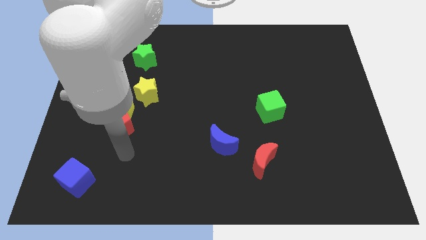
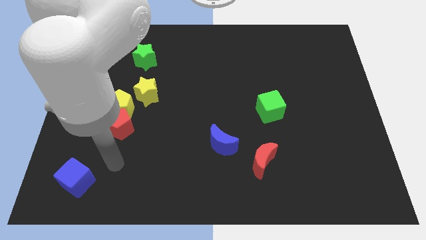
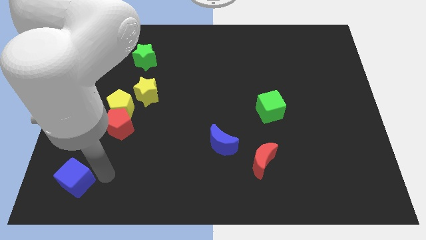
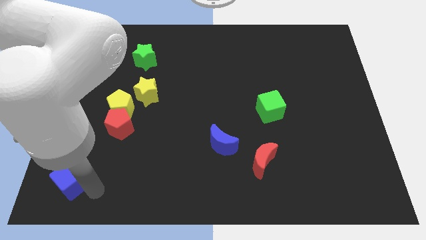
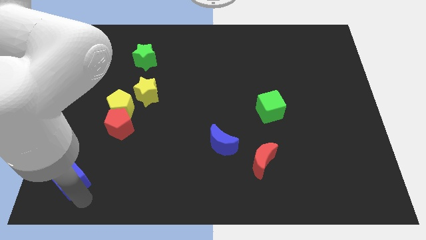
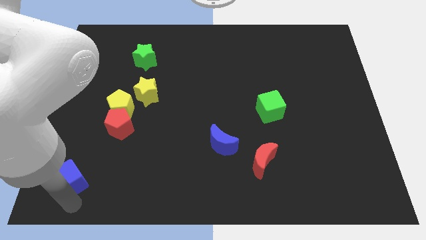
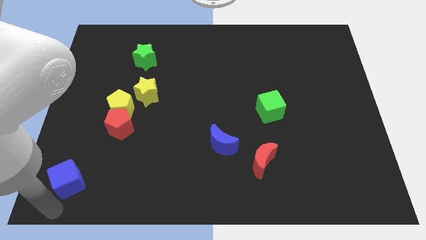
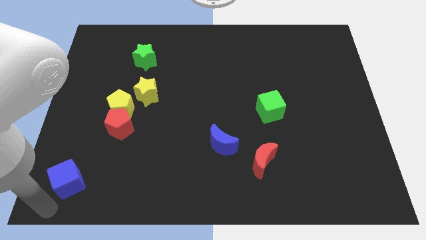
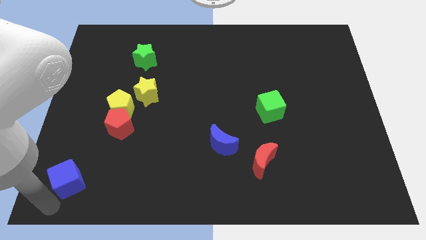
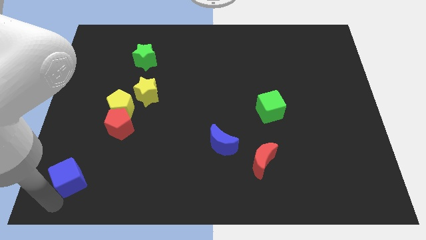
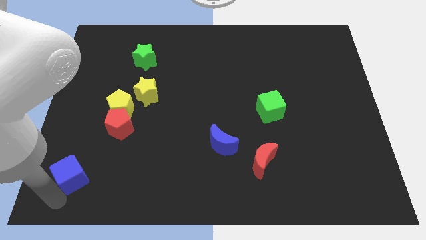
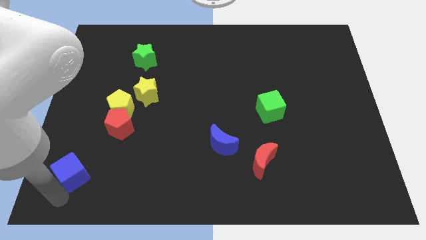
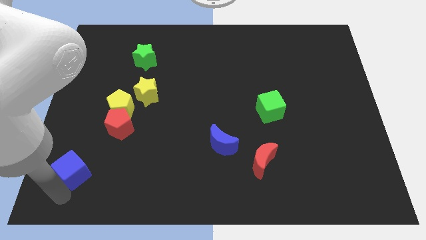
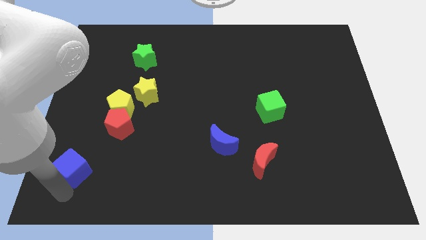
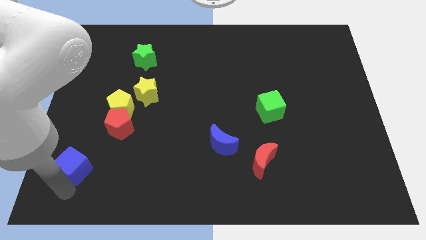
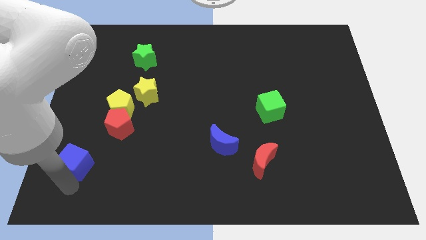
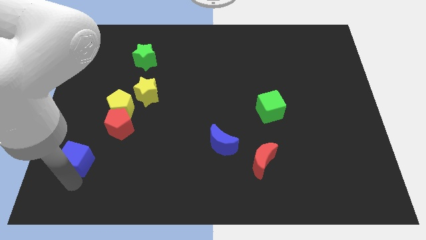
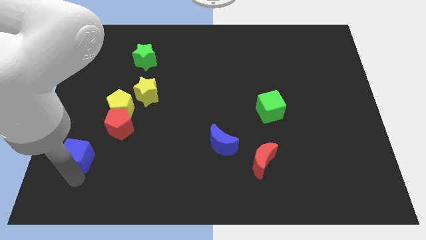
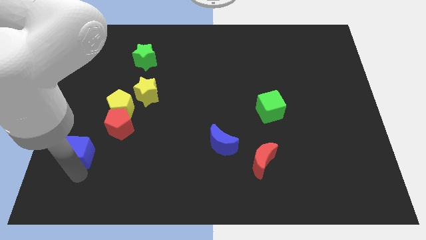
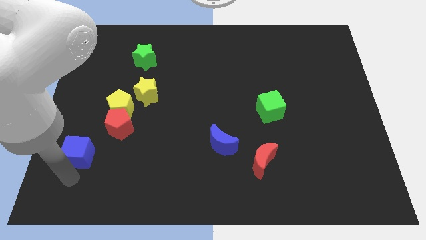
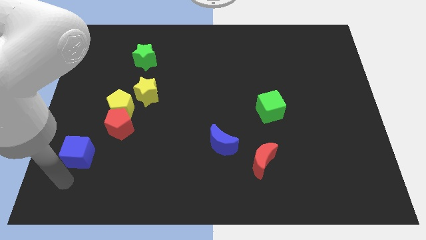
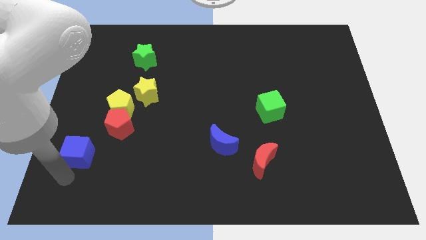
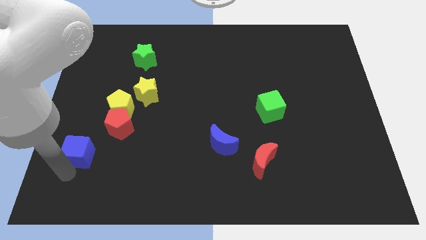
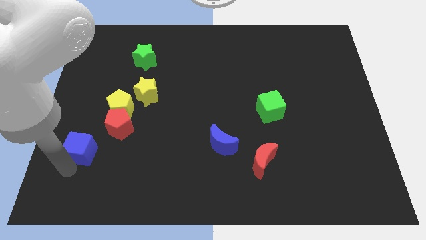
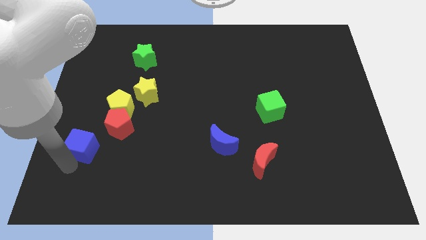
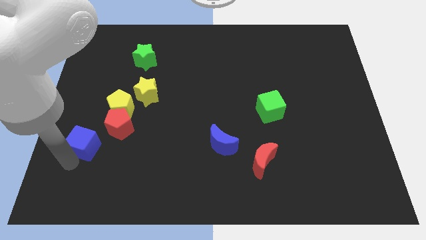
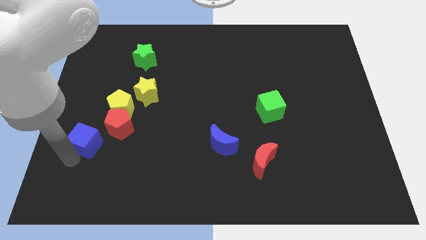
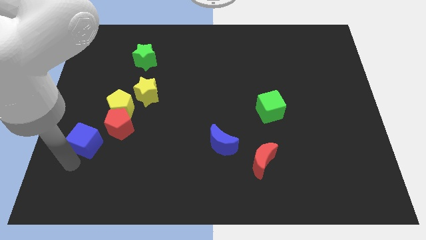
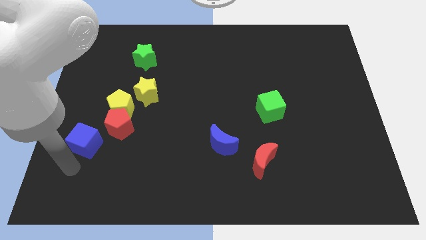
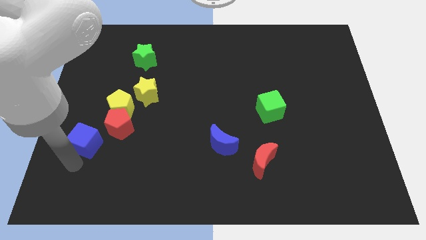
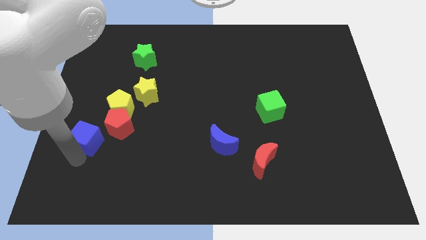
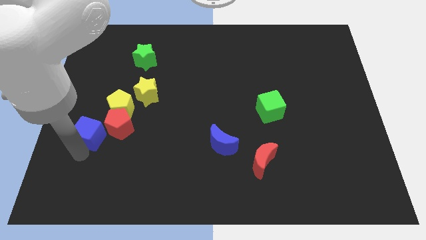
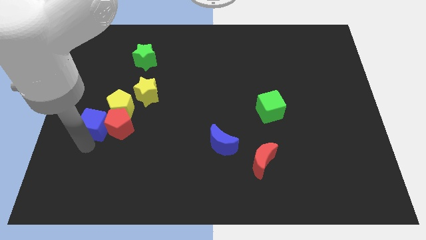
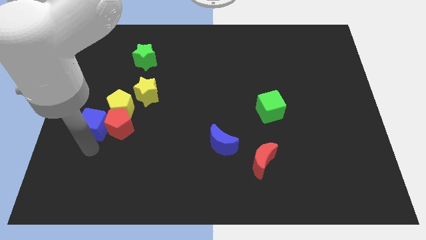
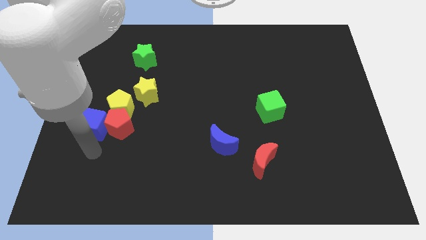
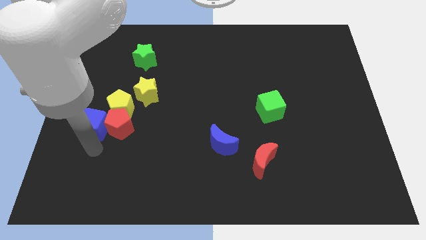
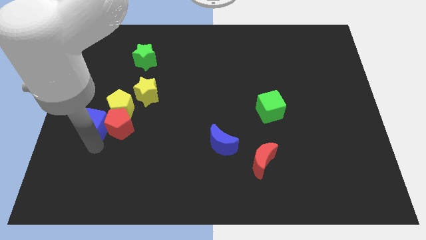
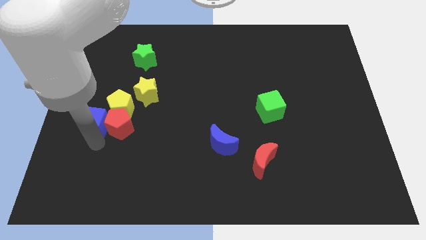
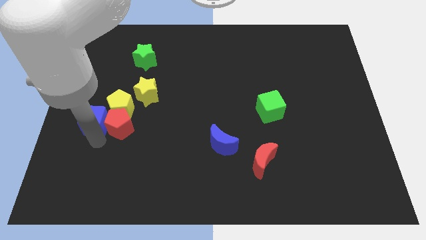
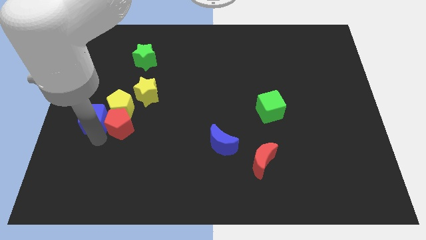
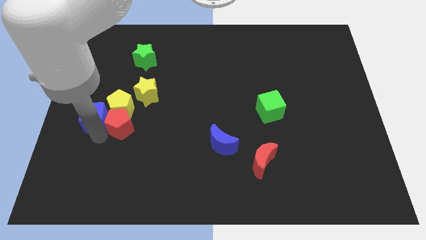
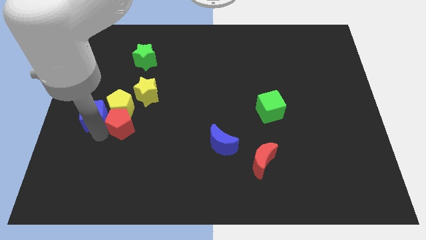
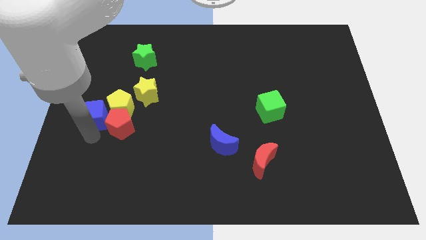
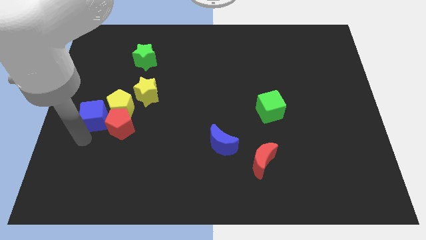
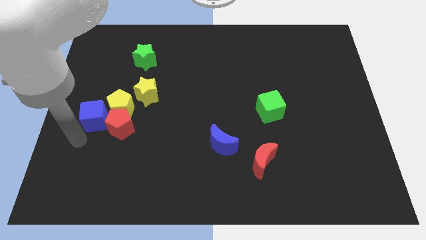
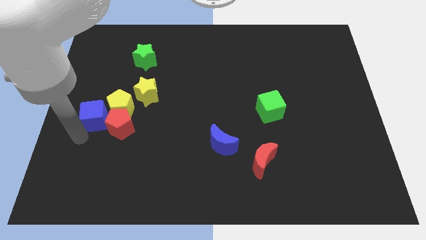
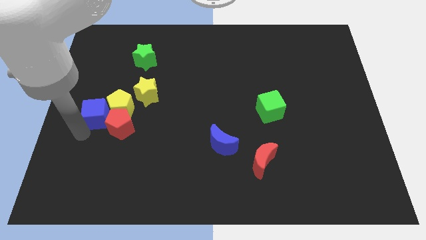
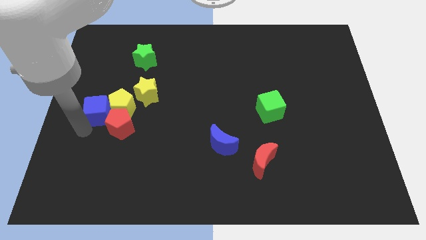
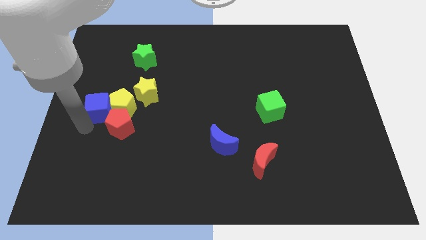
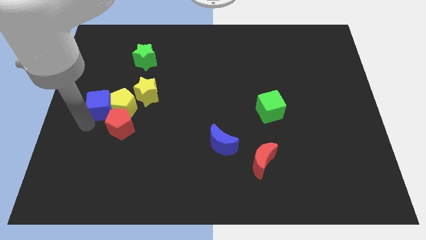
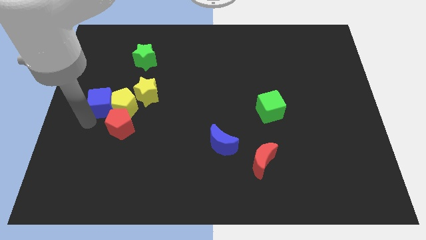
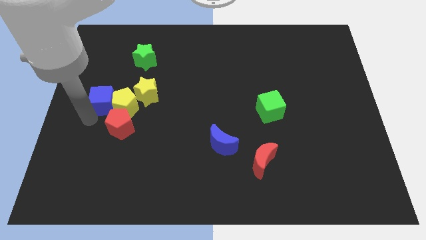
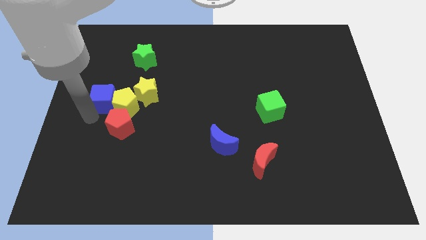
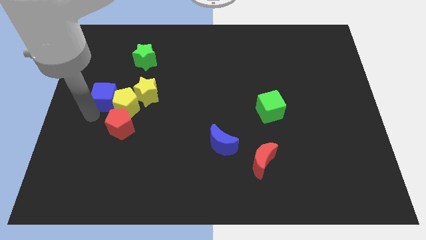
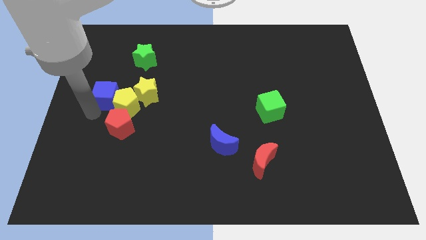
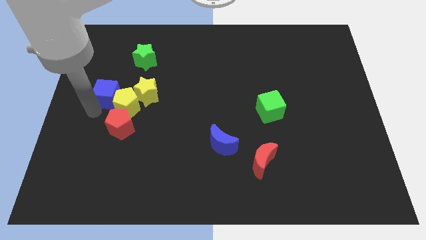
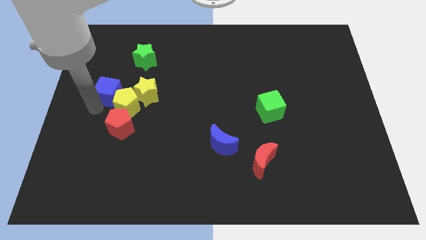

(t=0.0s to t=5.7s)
move the blue cube to the top of the yellow pentagon
